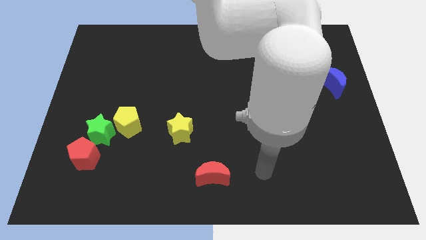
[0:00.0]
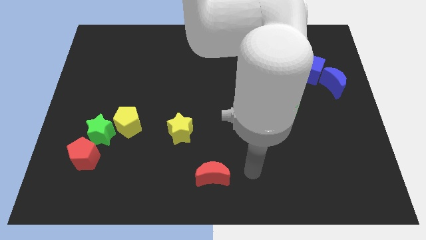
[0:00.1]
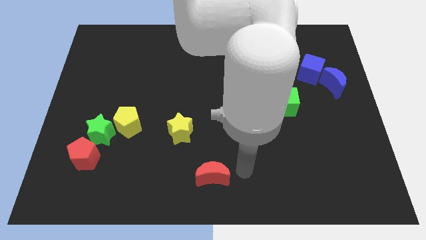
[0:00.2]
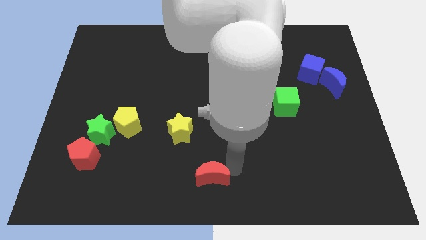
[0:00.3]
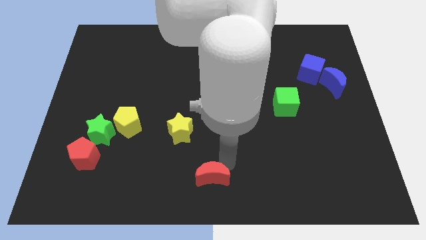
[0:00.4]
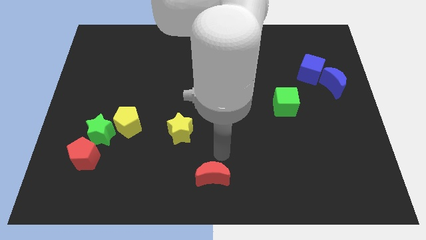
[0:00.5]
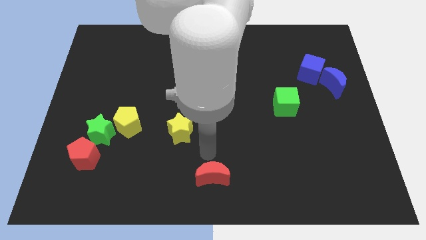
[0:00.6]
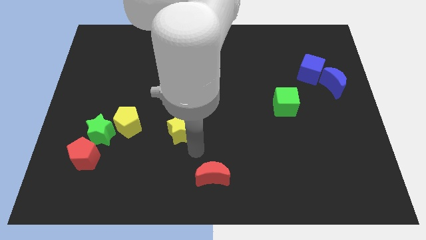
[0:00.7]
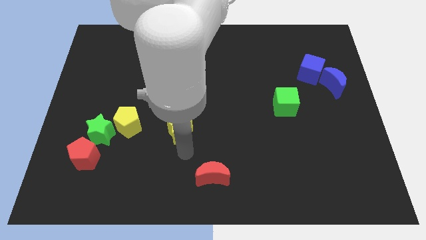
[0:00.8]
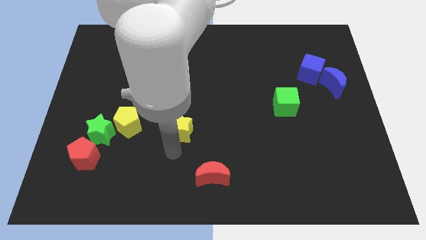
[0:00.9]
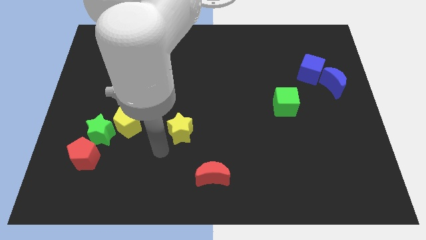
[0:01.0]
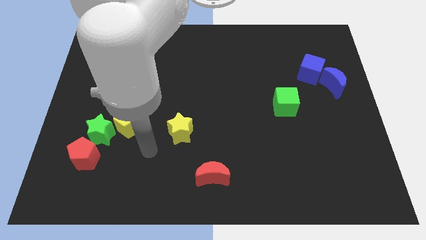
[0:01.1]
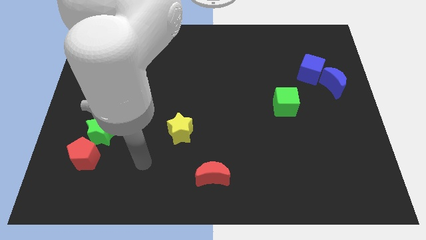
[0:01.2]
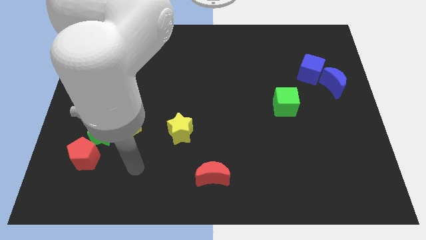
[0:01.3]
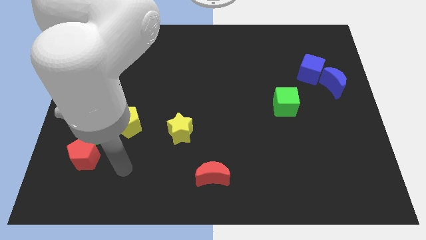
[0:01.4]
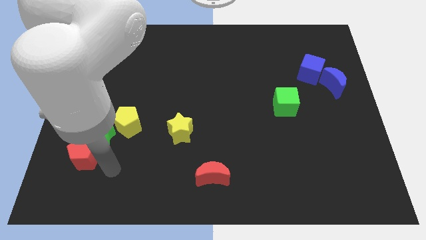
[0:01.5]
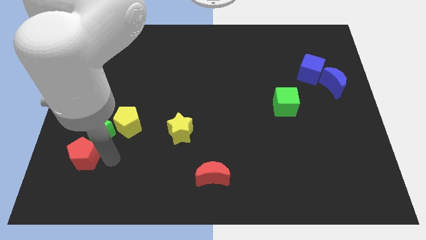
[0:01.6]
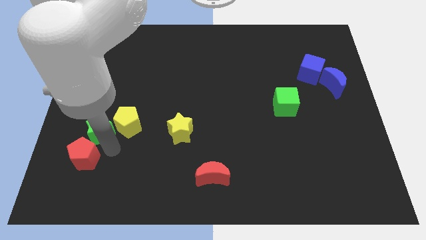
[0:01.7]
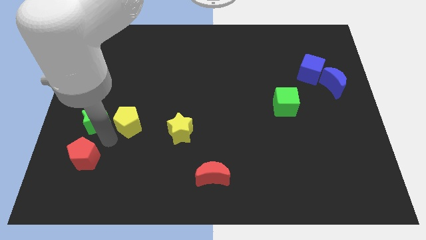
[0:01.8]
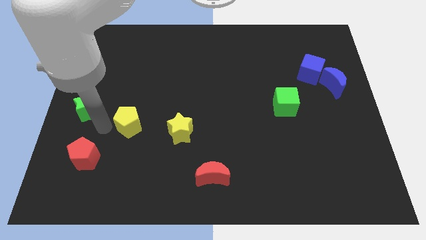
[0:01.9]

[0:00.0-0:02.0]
separate the yellow pentagon from the green star

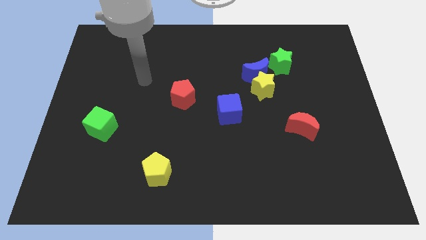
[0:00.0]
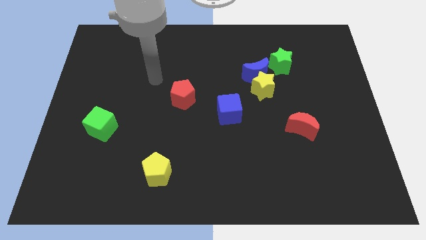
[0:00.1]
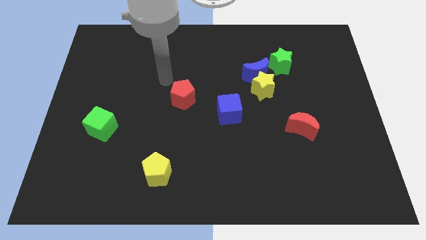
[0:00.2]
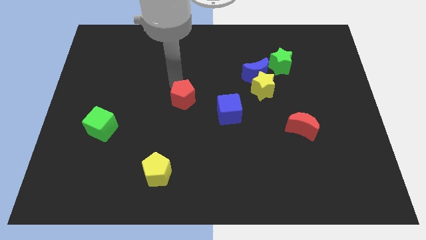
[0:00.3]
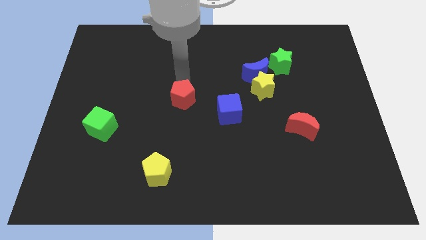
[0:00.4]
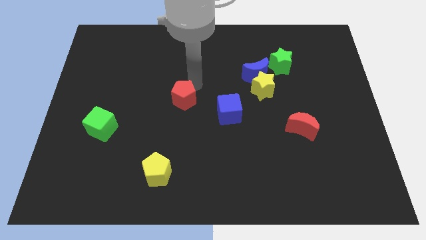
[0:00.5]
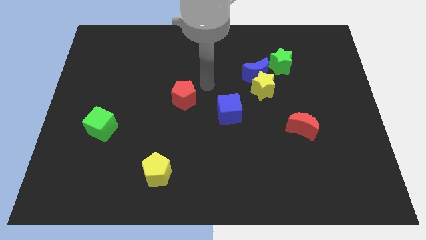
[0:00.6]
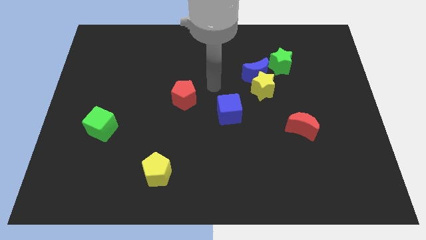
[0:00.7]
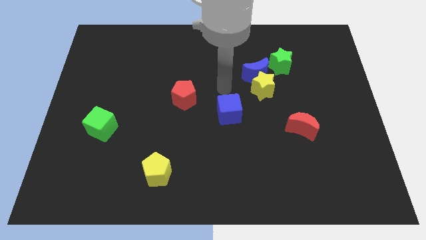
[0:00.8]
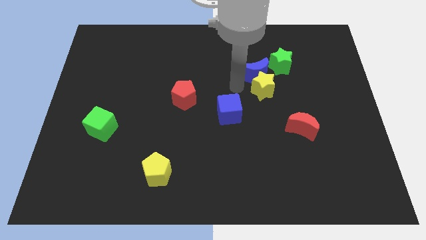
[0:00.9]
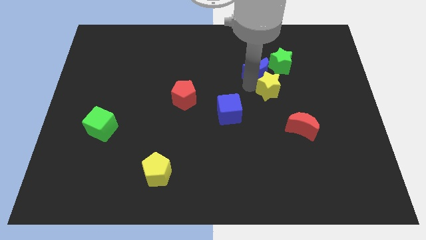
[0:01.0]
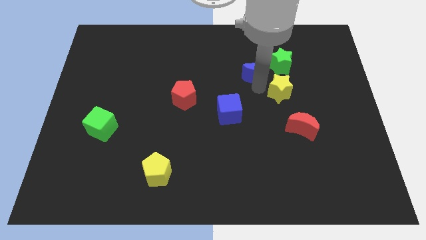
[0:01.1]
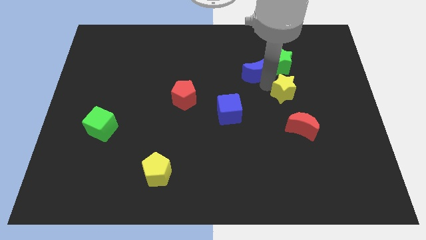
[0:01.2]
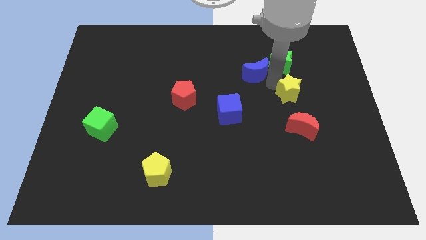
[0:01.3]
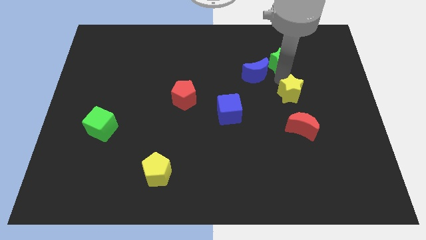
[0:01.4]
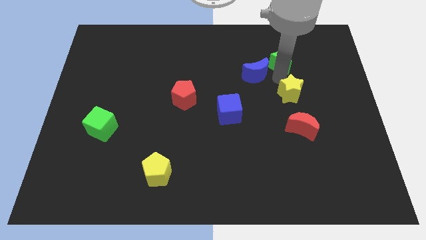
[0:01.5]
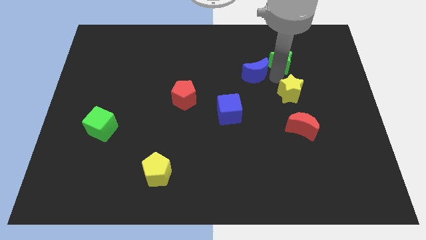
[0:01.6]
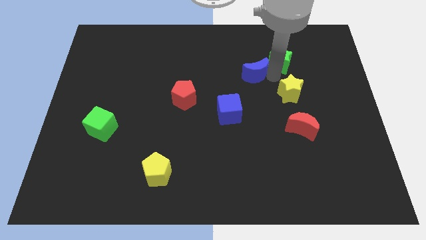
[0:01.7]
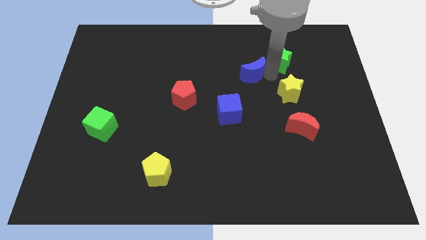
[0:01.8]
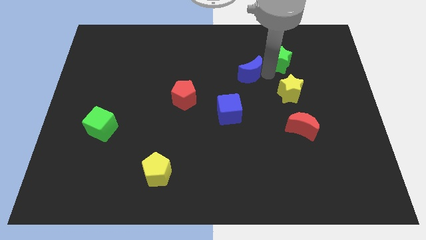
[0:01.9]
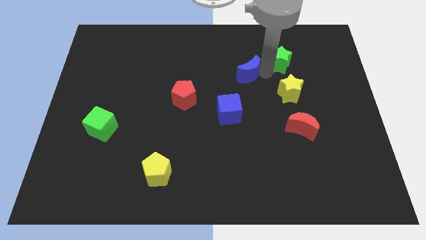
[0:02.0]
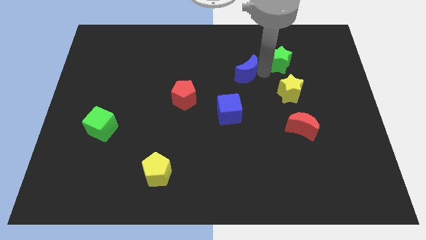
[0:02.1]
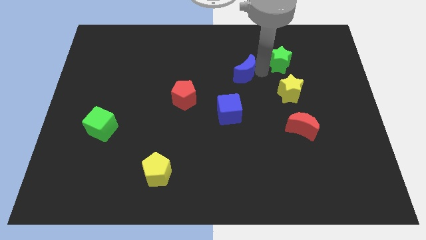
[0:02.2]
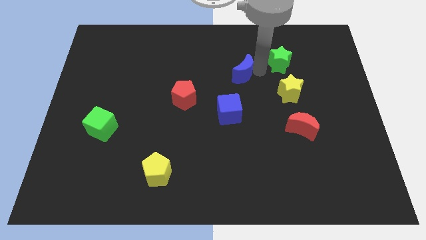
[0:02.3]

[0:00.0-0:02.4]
separate the blue moon from the yellow star and green star

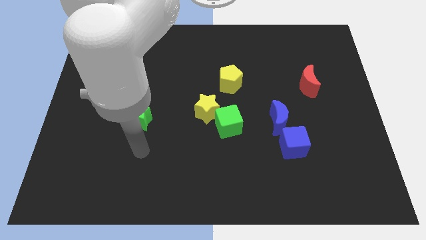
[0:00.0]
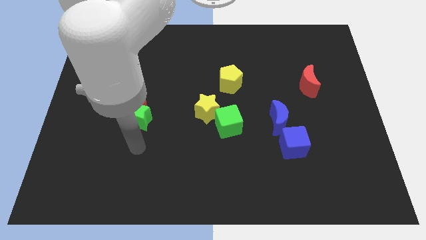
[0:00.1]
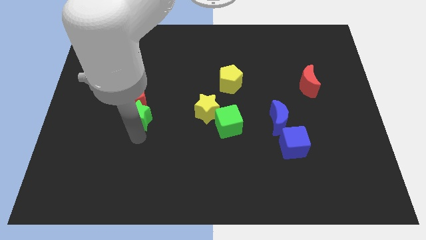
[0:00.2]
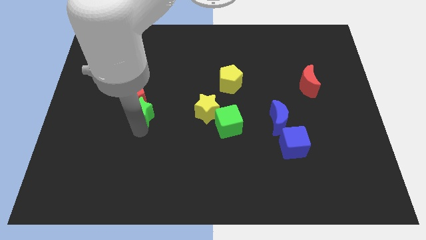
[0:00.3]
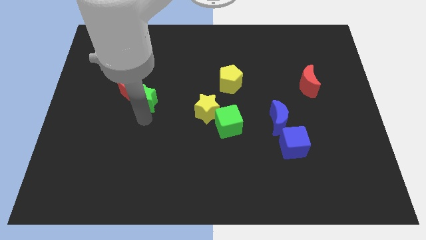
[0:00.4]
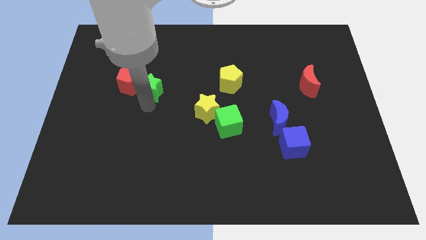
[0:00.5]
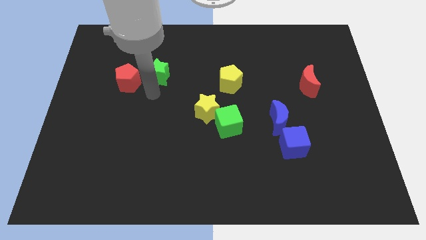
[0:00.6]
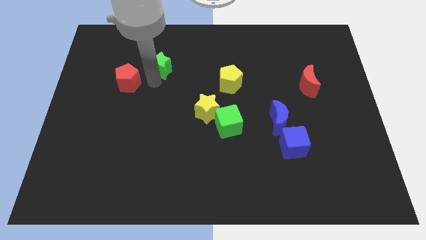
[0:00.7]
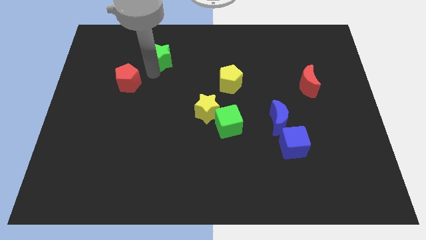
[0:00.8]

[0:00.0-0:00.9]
move the red pentagon away from the green star

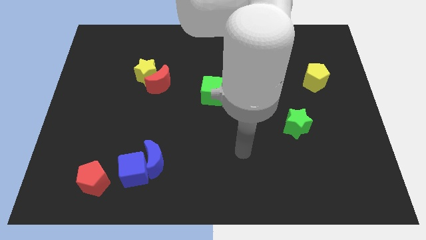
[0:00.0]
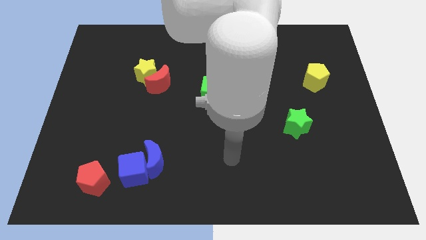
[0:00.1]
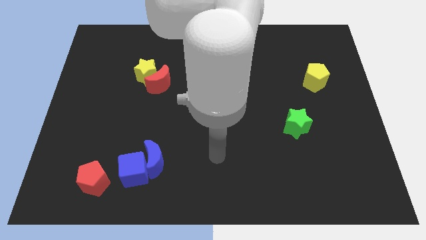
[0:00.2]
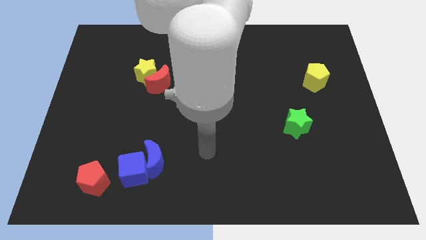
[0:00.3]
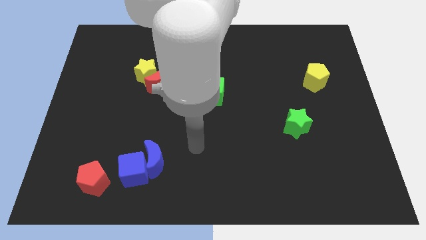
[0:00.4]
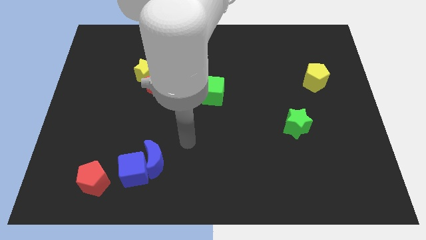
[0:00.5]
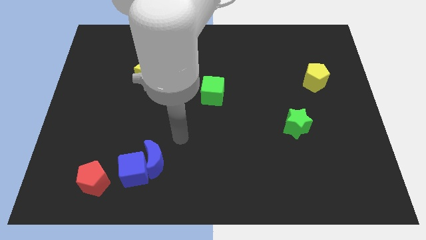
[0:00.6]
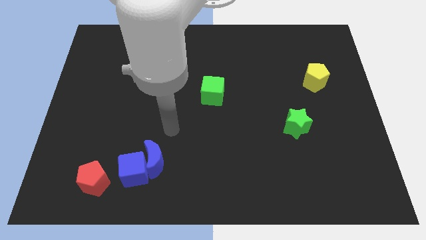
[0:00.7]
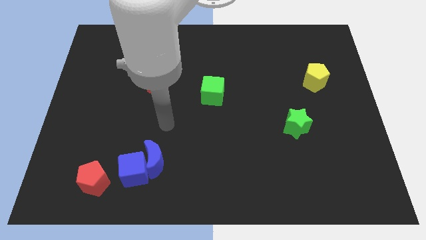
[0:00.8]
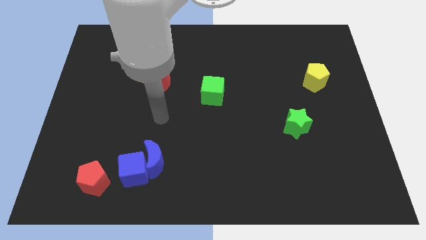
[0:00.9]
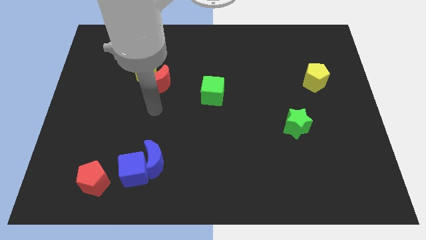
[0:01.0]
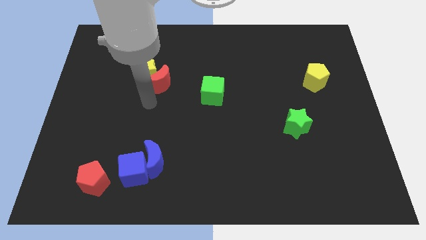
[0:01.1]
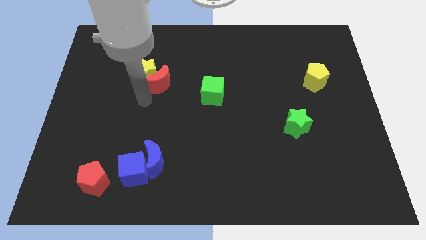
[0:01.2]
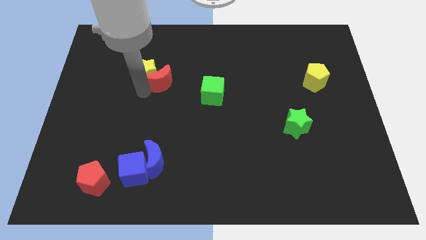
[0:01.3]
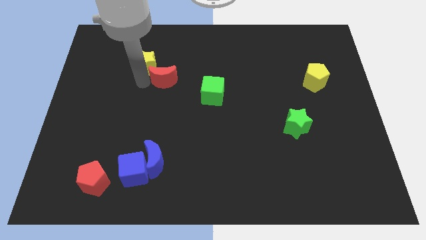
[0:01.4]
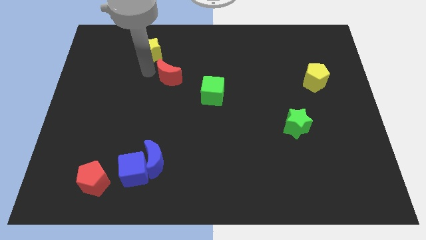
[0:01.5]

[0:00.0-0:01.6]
move the red moon away from the yellow star

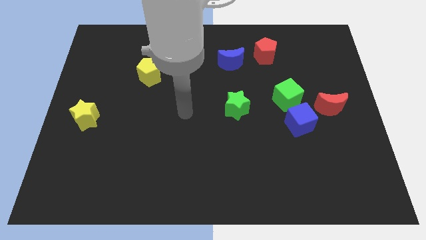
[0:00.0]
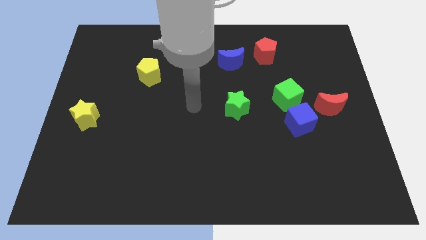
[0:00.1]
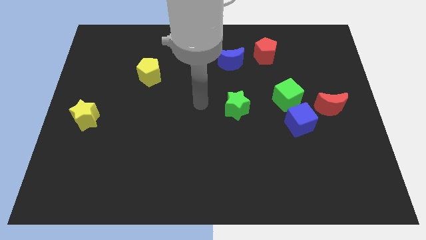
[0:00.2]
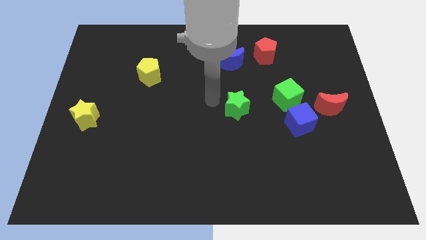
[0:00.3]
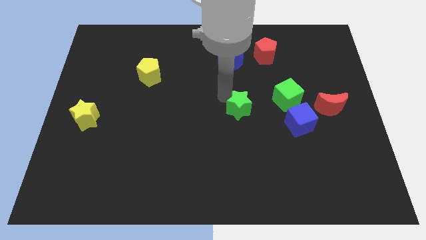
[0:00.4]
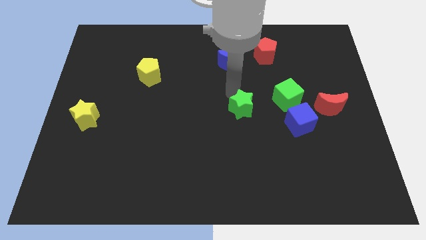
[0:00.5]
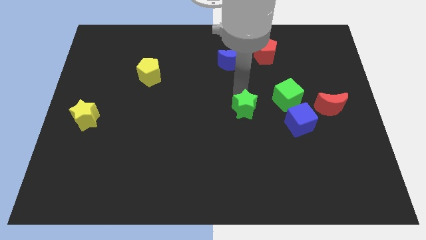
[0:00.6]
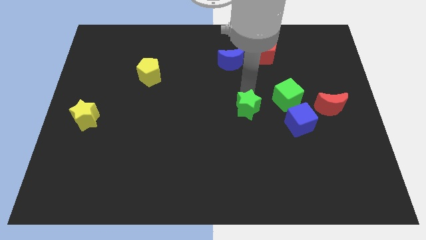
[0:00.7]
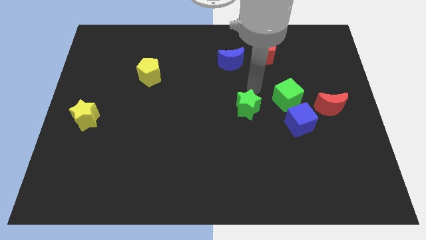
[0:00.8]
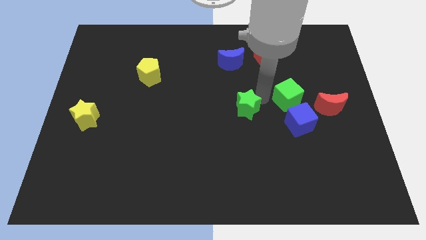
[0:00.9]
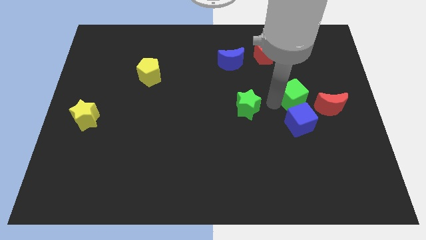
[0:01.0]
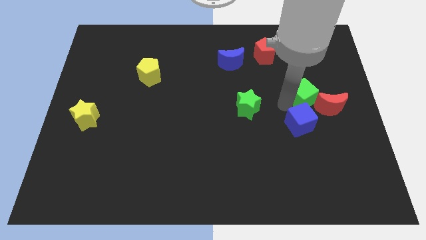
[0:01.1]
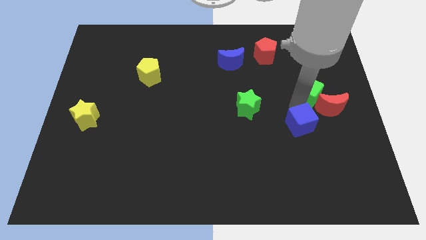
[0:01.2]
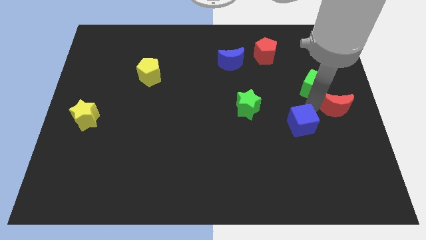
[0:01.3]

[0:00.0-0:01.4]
separate the blue cube from the green cube and red moon

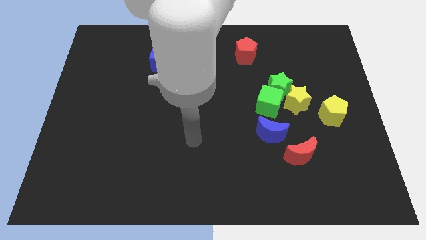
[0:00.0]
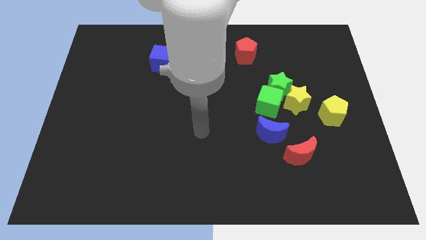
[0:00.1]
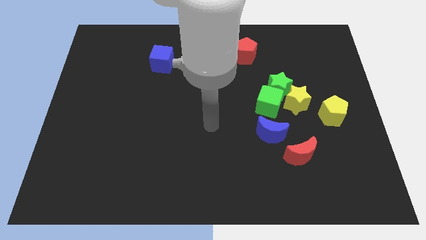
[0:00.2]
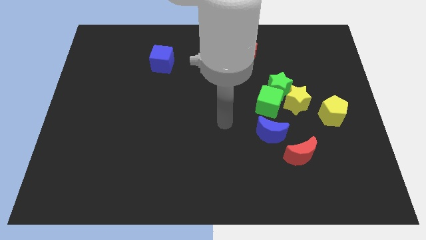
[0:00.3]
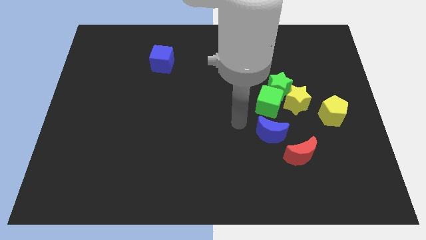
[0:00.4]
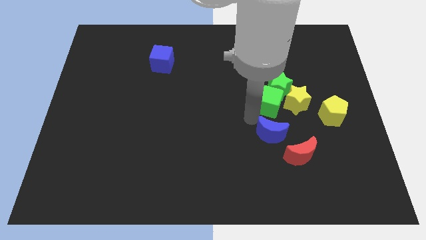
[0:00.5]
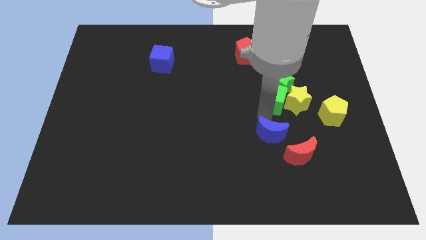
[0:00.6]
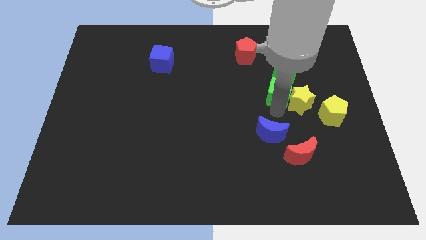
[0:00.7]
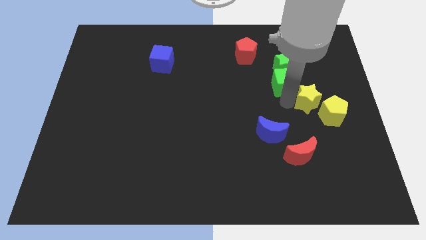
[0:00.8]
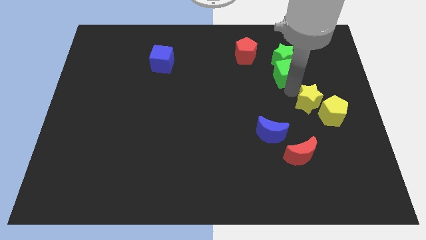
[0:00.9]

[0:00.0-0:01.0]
pull the green star apart from the yellow star and green cube
